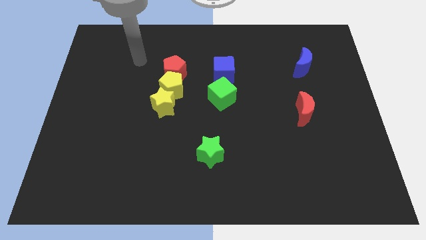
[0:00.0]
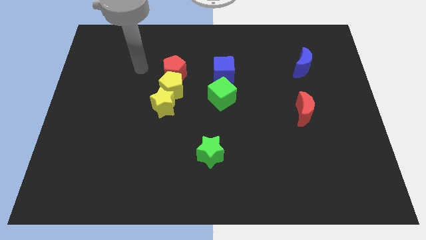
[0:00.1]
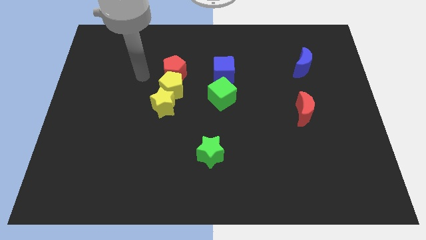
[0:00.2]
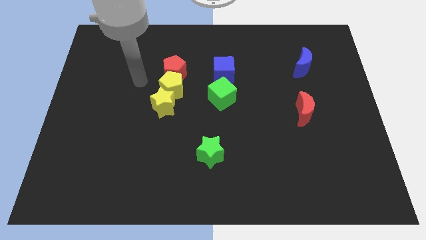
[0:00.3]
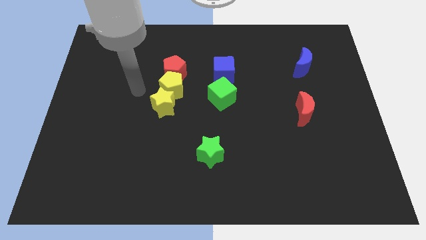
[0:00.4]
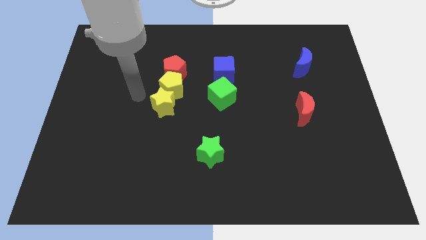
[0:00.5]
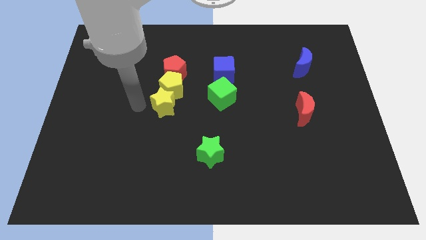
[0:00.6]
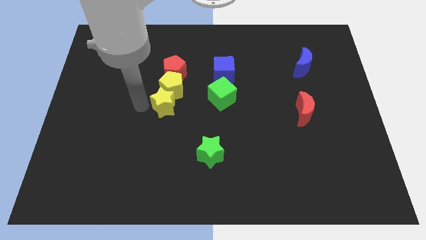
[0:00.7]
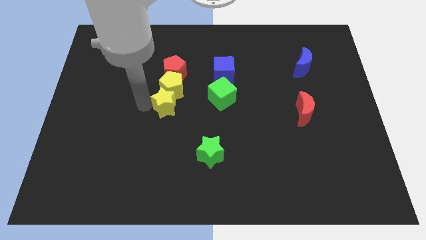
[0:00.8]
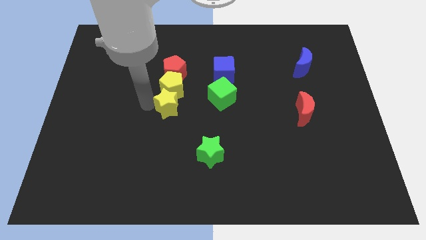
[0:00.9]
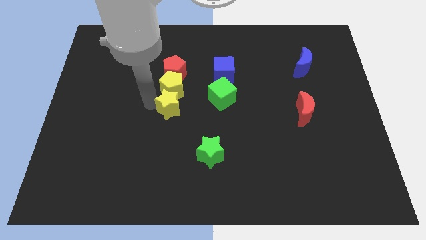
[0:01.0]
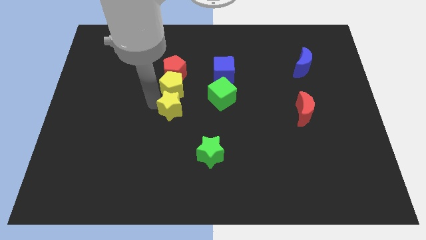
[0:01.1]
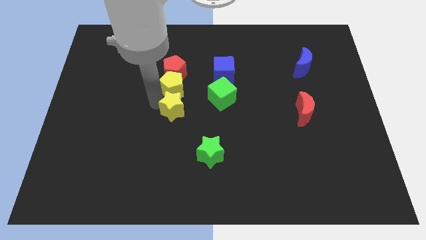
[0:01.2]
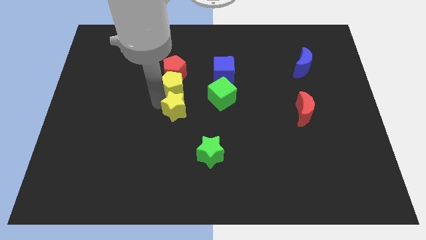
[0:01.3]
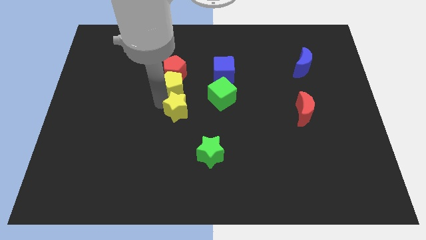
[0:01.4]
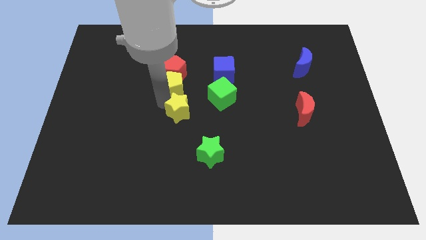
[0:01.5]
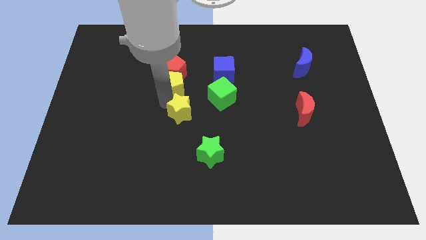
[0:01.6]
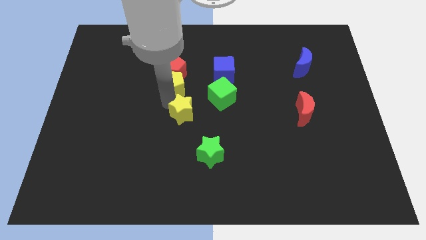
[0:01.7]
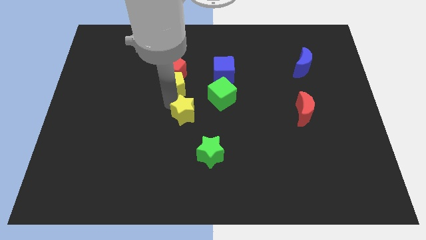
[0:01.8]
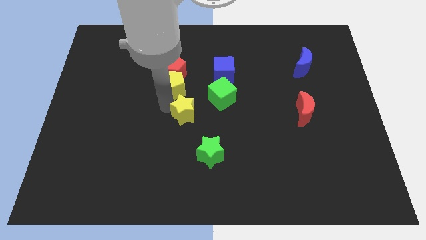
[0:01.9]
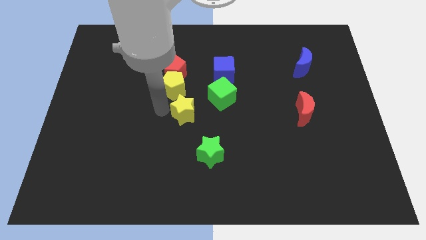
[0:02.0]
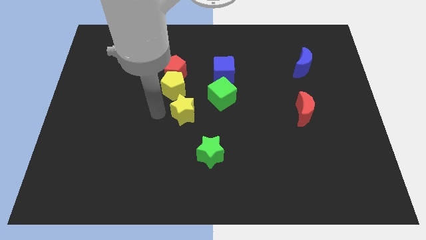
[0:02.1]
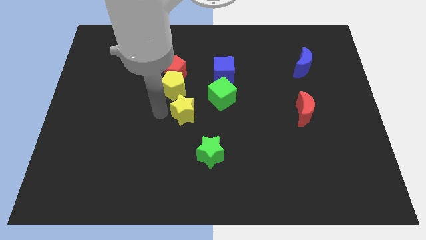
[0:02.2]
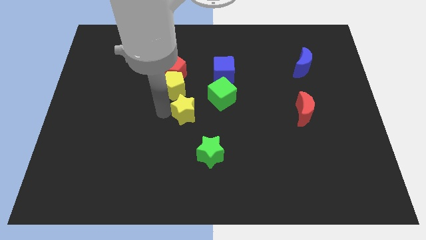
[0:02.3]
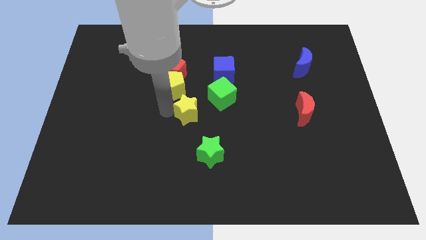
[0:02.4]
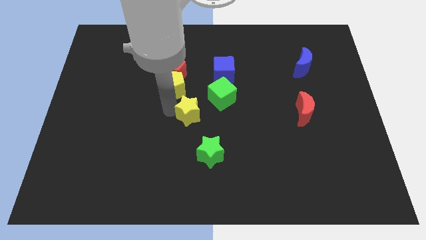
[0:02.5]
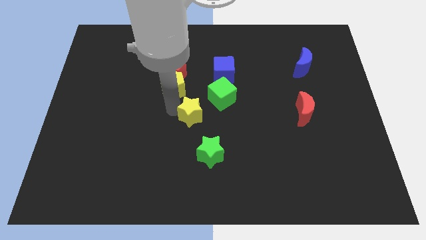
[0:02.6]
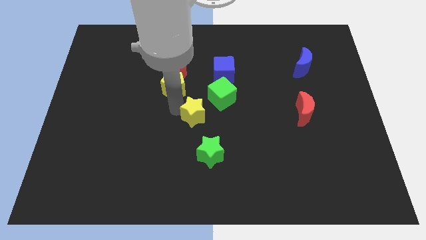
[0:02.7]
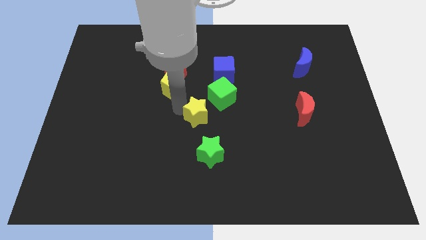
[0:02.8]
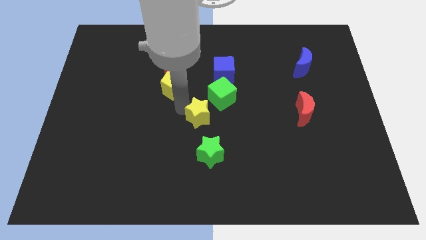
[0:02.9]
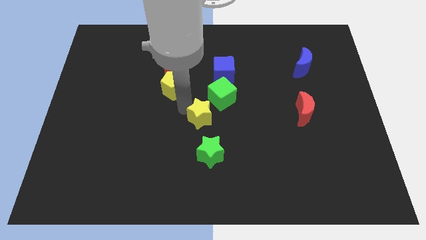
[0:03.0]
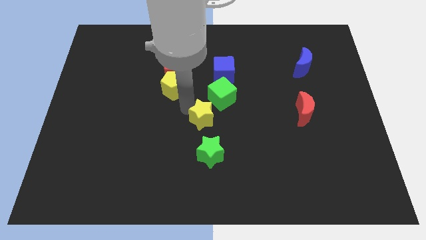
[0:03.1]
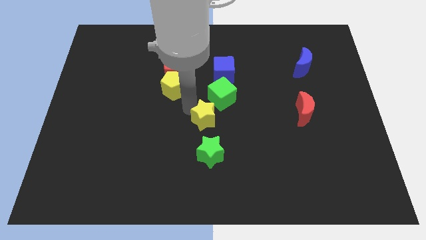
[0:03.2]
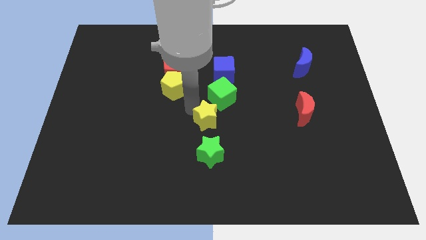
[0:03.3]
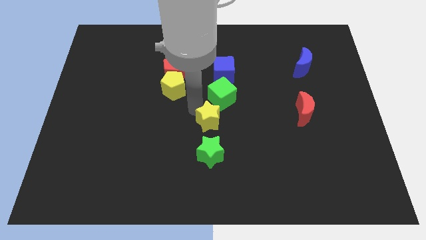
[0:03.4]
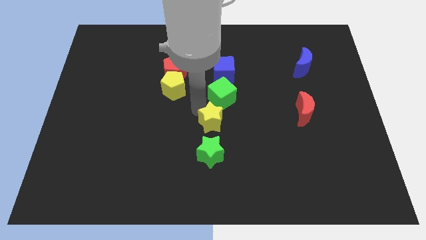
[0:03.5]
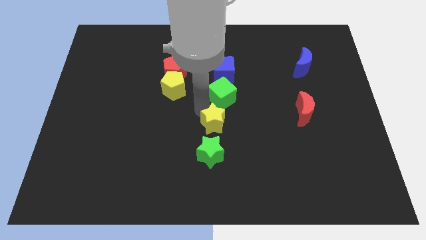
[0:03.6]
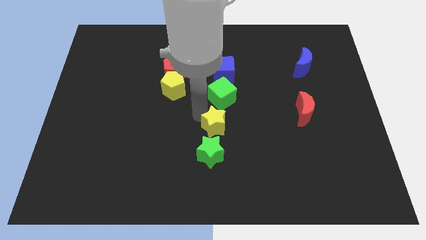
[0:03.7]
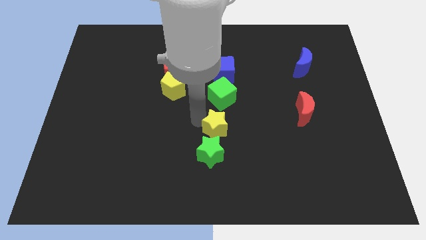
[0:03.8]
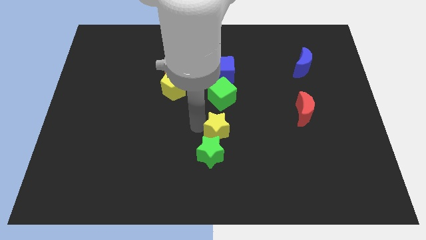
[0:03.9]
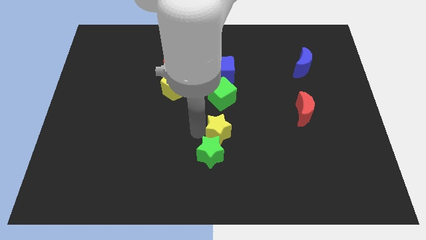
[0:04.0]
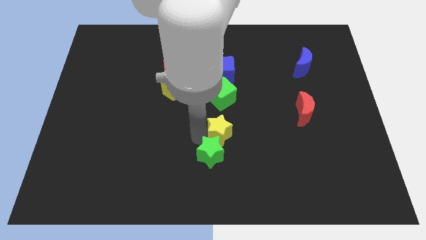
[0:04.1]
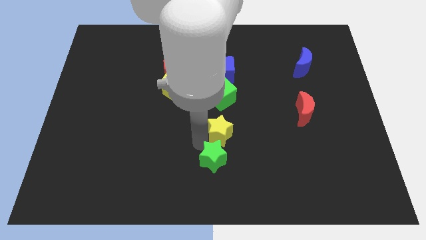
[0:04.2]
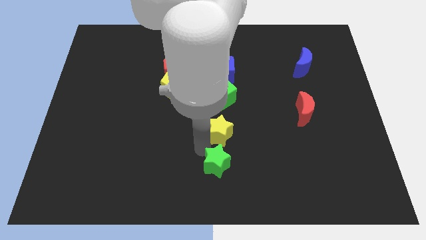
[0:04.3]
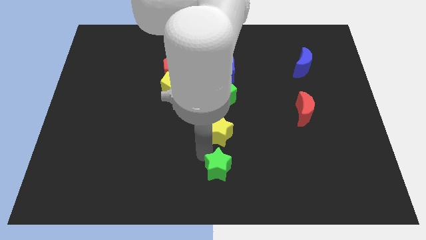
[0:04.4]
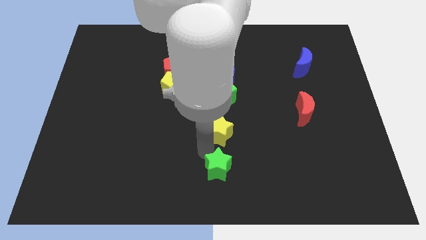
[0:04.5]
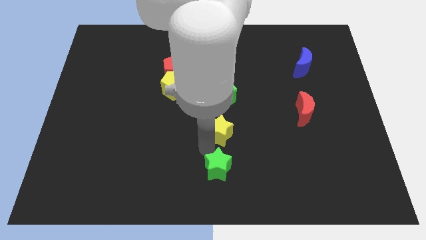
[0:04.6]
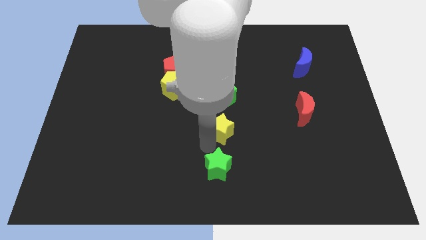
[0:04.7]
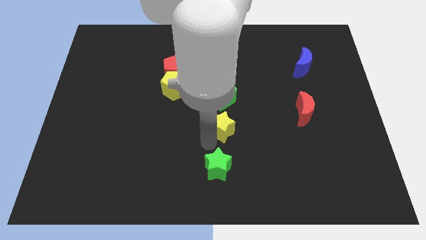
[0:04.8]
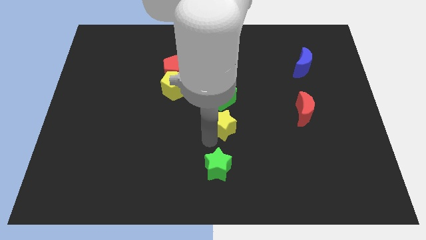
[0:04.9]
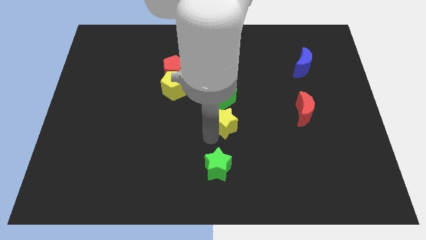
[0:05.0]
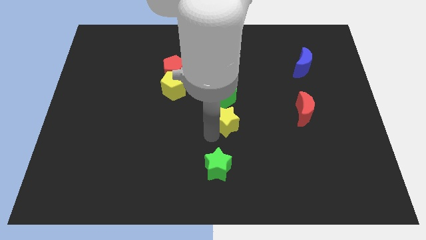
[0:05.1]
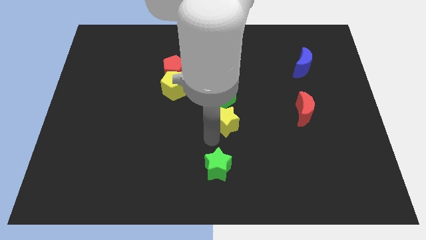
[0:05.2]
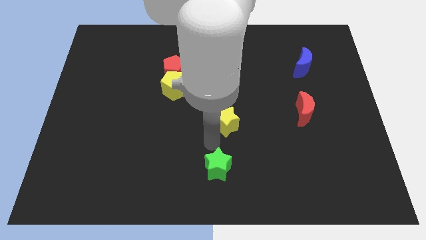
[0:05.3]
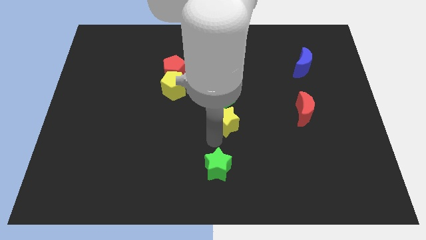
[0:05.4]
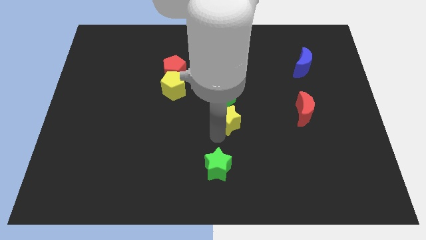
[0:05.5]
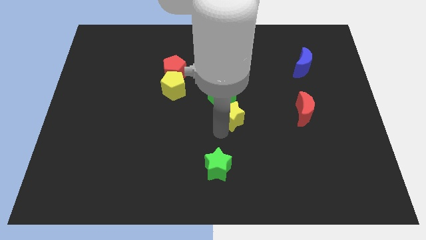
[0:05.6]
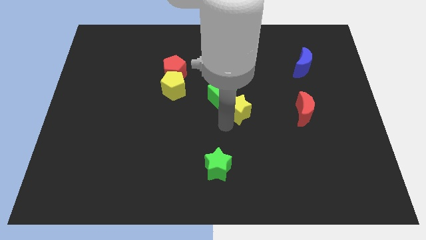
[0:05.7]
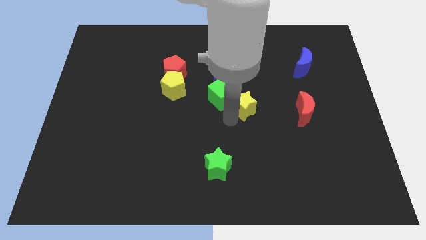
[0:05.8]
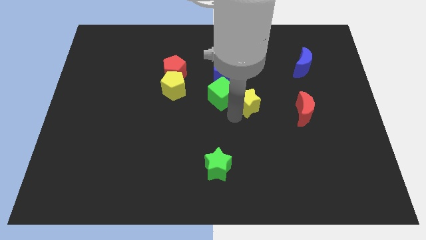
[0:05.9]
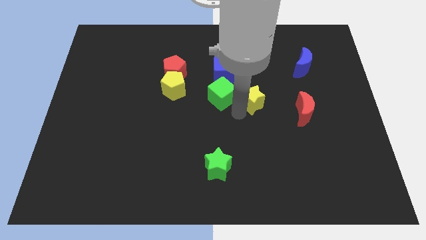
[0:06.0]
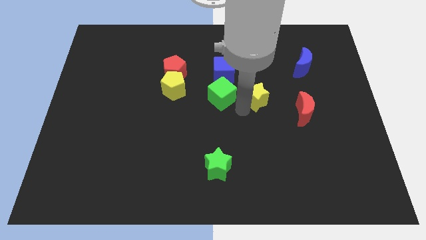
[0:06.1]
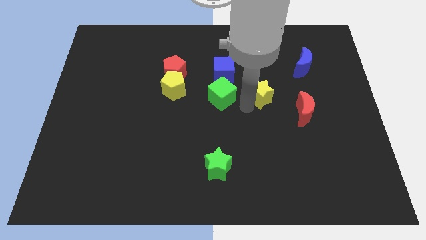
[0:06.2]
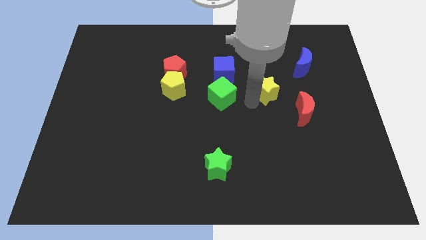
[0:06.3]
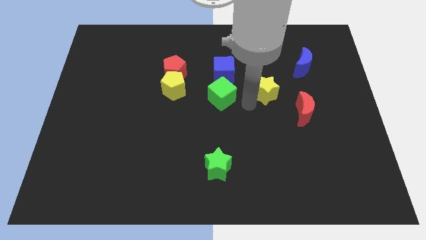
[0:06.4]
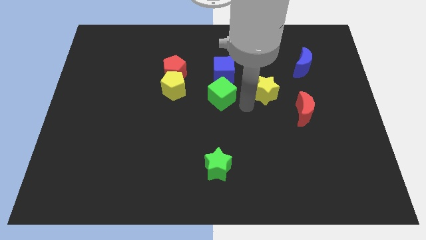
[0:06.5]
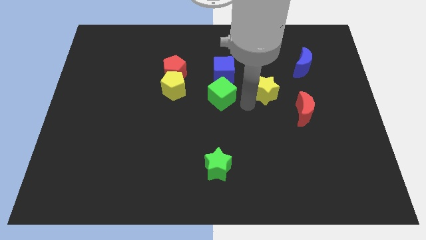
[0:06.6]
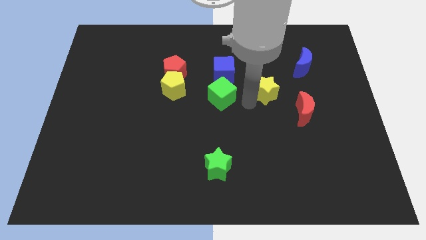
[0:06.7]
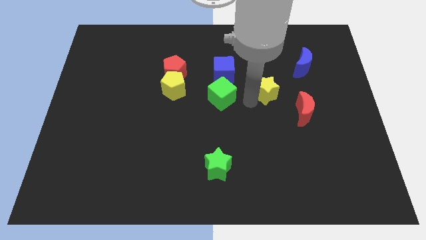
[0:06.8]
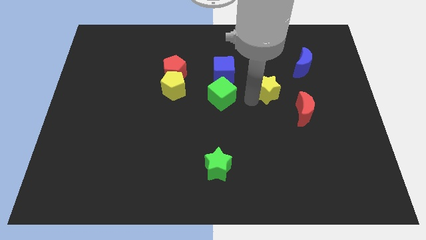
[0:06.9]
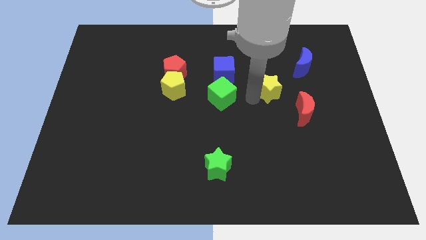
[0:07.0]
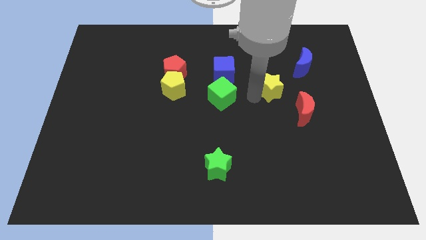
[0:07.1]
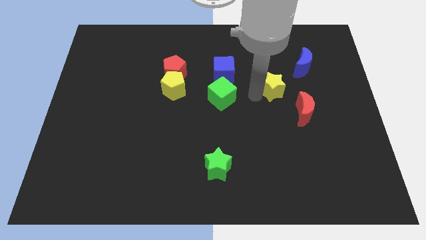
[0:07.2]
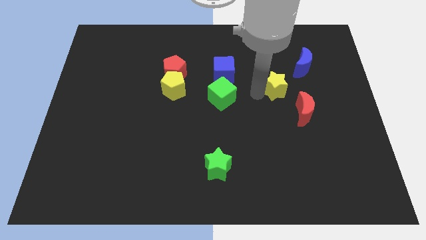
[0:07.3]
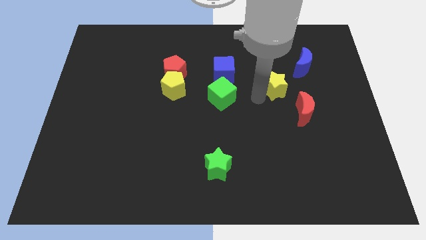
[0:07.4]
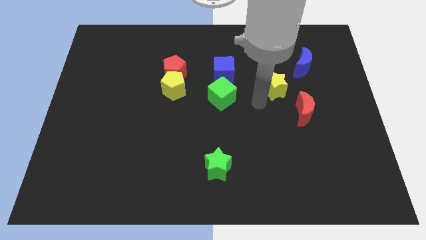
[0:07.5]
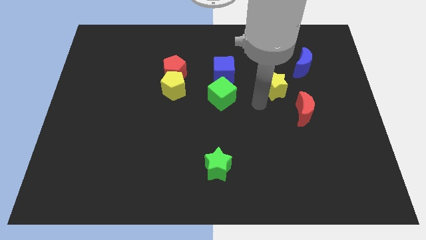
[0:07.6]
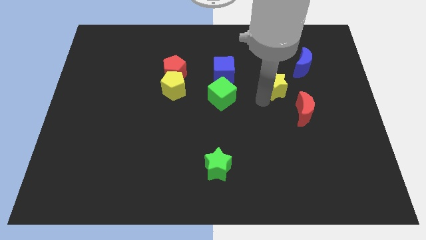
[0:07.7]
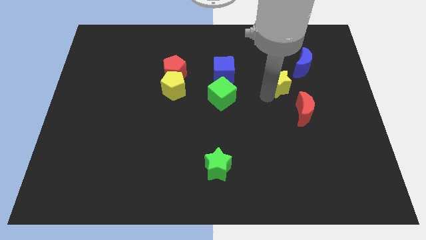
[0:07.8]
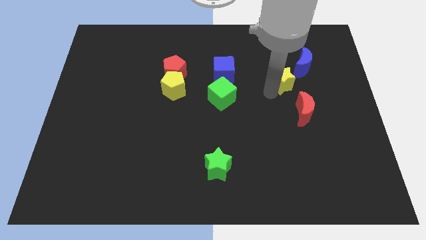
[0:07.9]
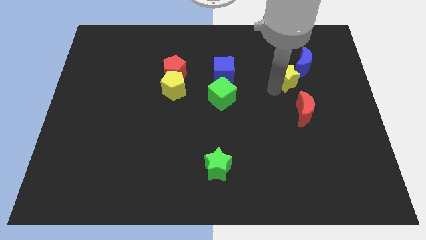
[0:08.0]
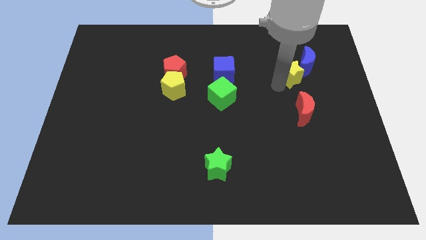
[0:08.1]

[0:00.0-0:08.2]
put the yellow star close to the blue moon
